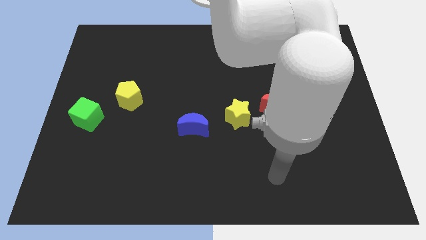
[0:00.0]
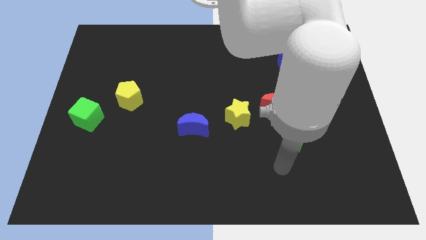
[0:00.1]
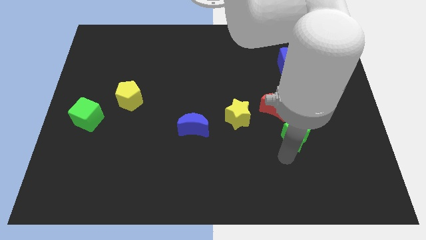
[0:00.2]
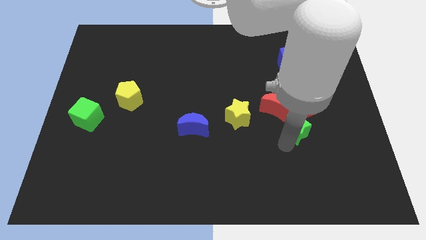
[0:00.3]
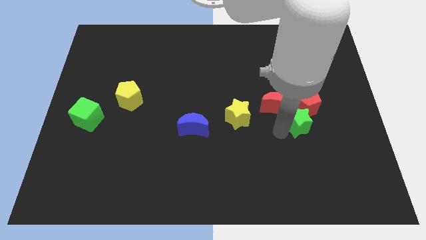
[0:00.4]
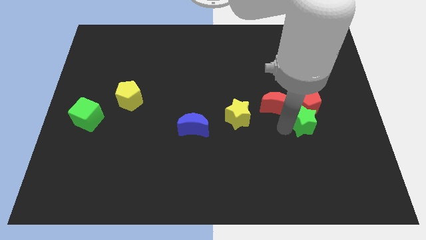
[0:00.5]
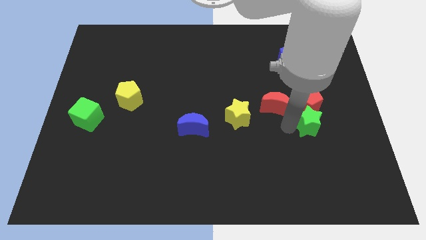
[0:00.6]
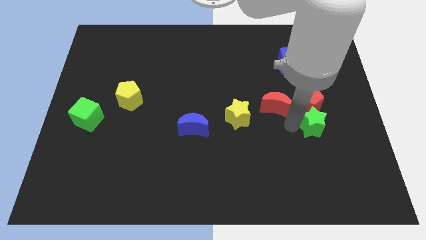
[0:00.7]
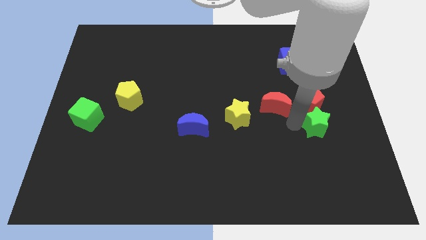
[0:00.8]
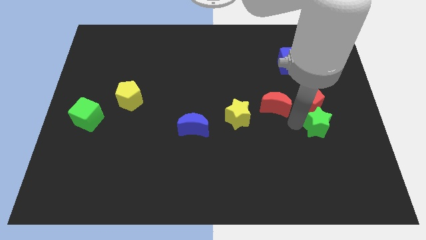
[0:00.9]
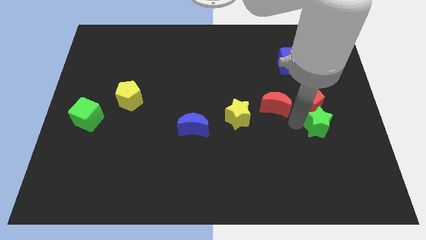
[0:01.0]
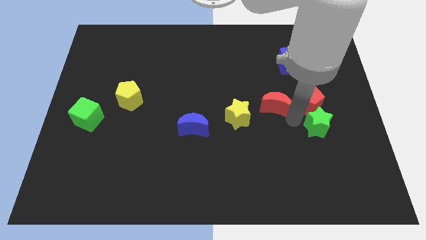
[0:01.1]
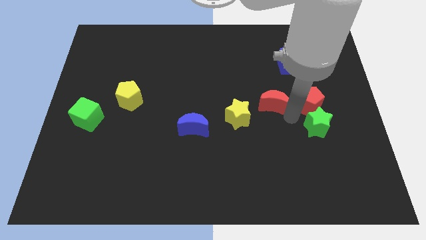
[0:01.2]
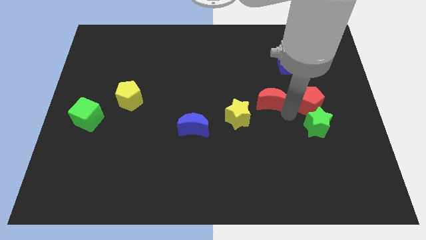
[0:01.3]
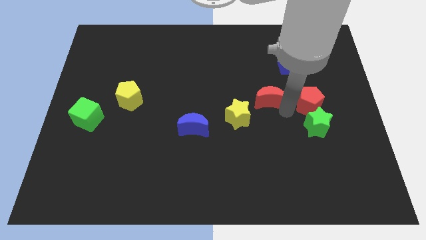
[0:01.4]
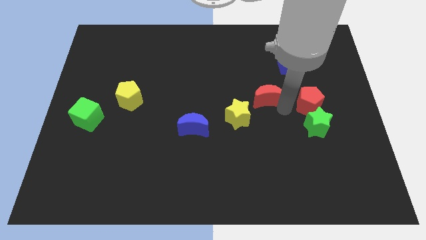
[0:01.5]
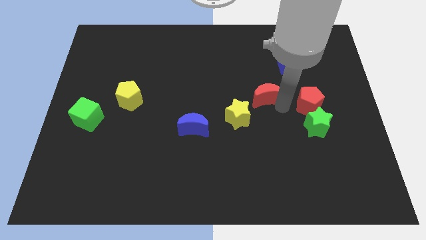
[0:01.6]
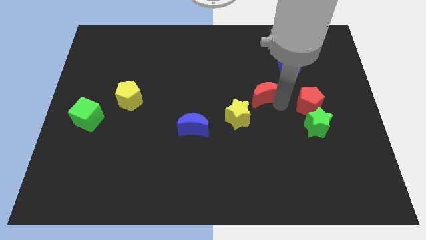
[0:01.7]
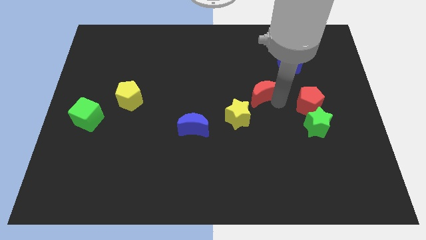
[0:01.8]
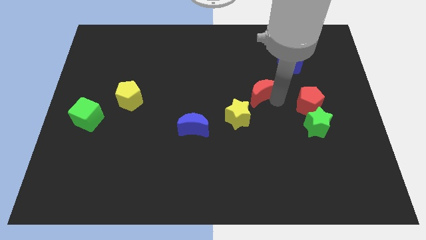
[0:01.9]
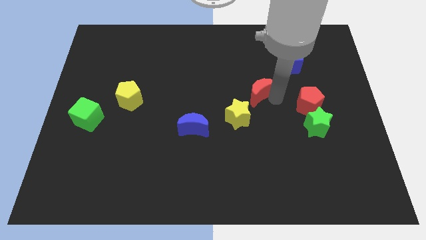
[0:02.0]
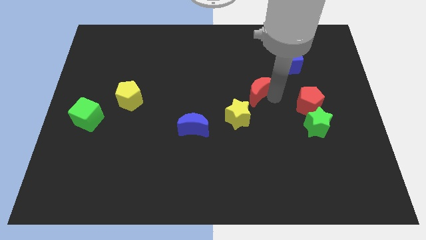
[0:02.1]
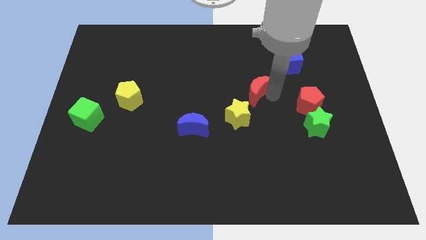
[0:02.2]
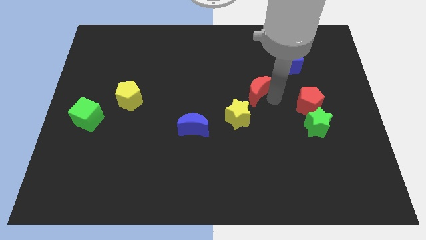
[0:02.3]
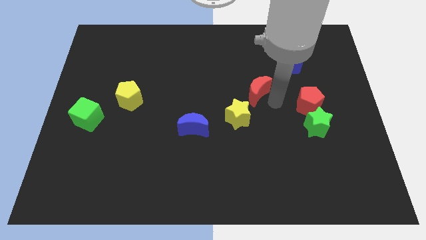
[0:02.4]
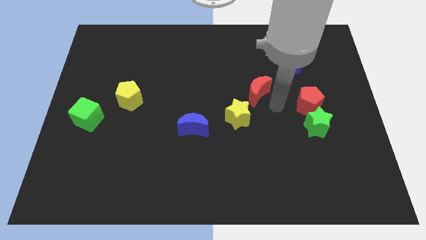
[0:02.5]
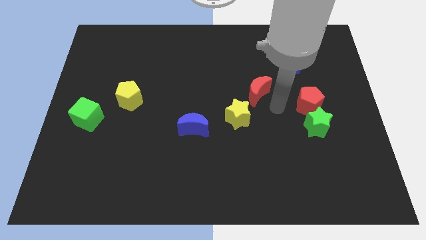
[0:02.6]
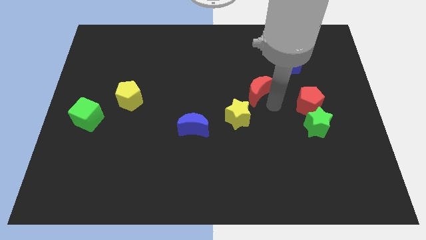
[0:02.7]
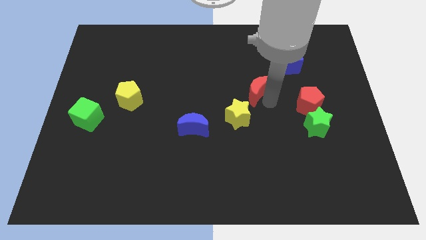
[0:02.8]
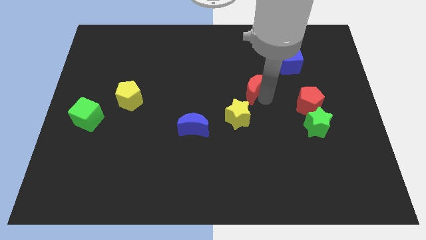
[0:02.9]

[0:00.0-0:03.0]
pull the red moon apart from the group of blocks

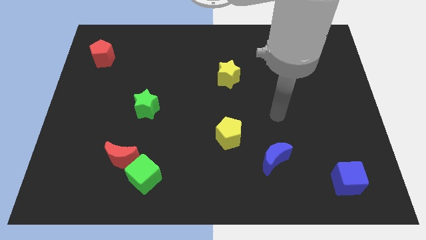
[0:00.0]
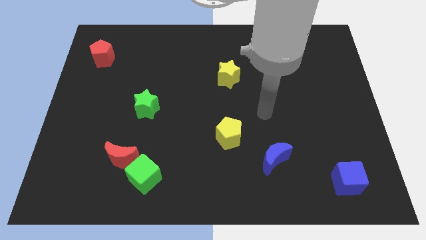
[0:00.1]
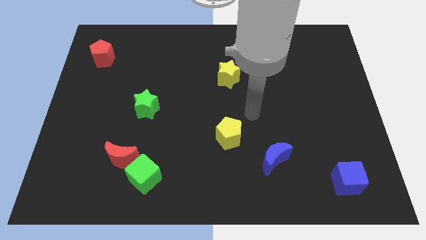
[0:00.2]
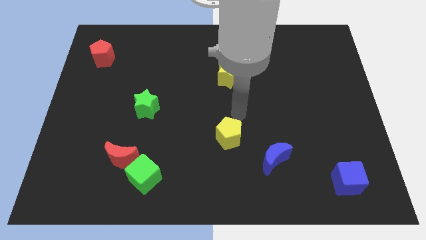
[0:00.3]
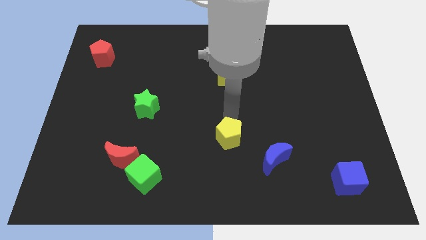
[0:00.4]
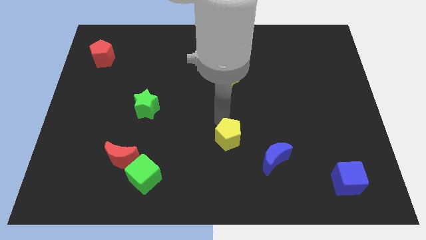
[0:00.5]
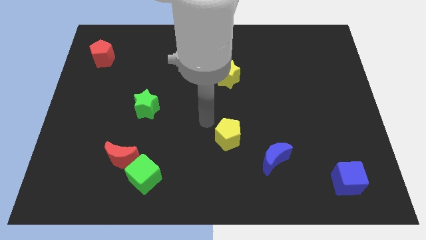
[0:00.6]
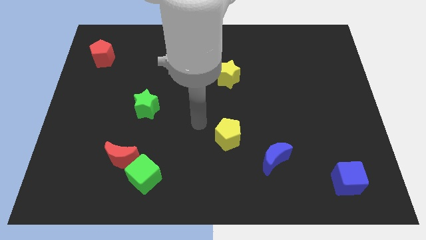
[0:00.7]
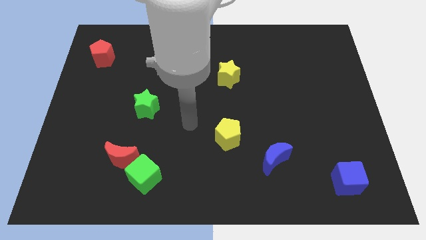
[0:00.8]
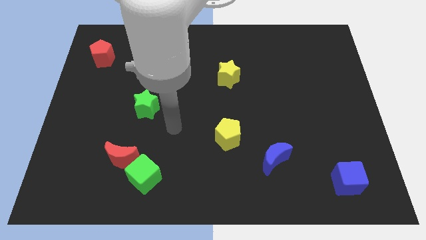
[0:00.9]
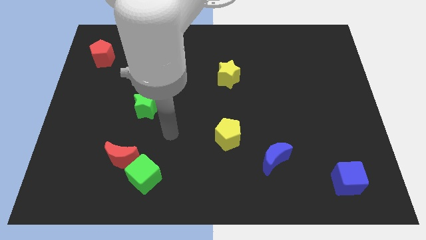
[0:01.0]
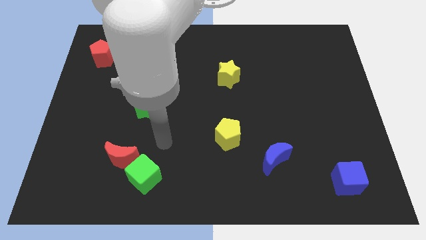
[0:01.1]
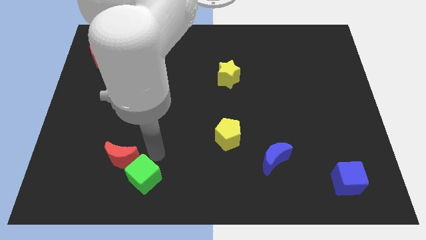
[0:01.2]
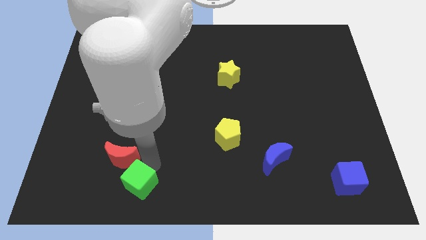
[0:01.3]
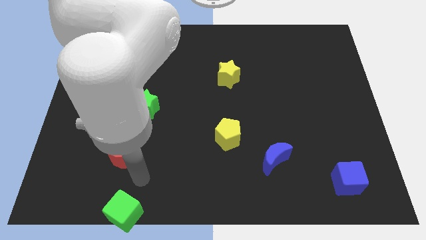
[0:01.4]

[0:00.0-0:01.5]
separate the red moon from the green cube

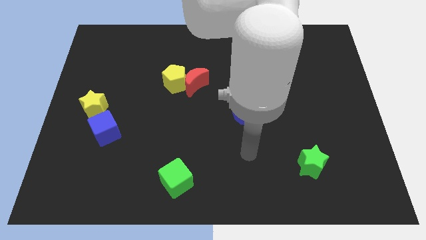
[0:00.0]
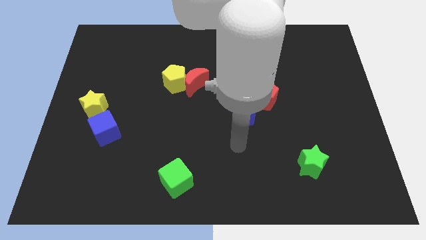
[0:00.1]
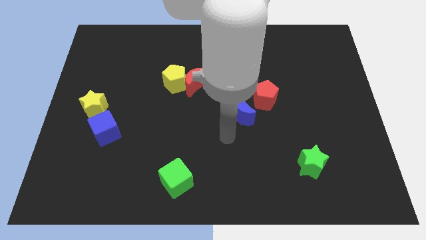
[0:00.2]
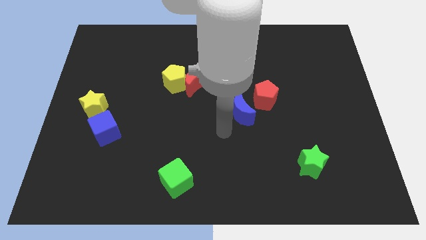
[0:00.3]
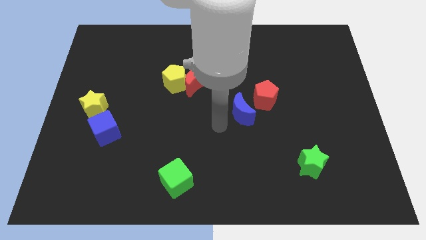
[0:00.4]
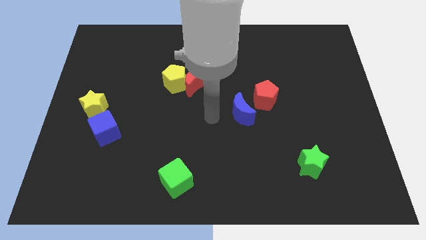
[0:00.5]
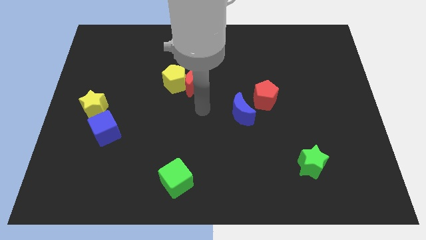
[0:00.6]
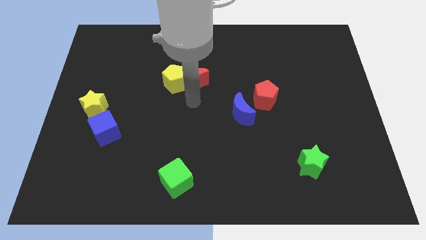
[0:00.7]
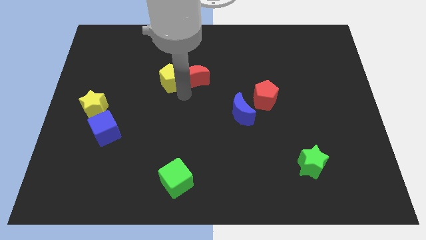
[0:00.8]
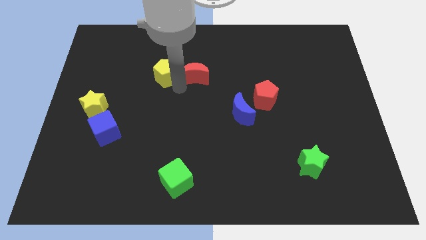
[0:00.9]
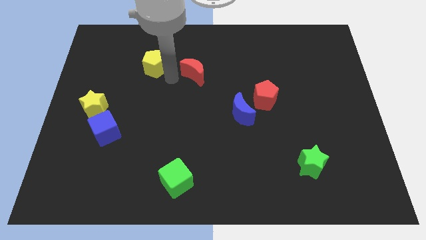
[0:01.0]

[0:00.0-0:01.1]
move the red moon away from the yellow pentagon

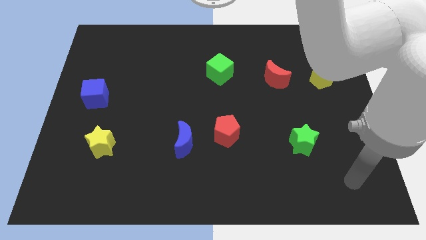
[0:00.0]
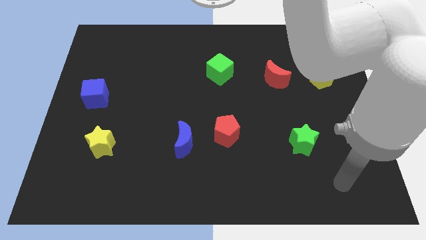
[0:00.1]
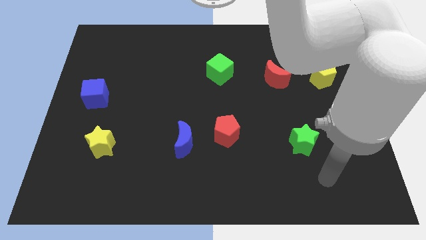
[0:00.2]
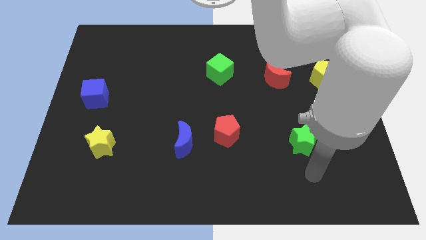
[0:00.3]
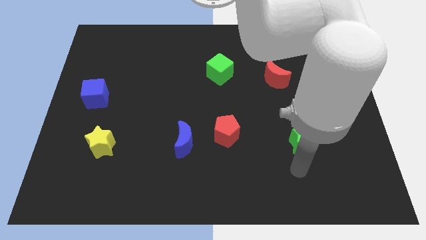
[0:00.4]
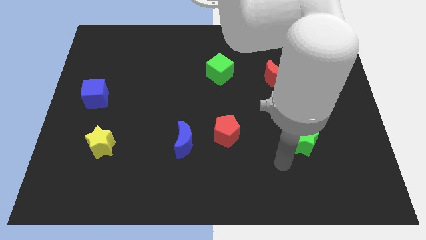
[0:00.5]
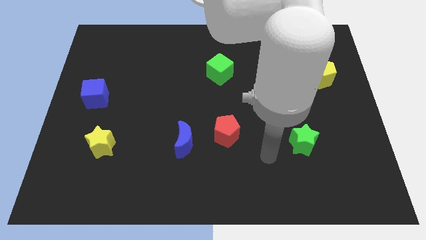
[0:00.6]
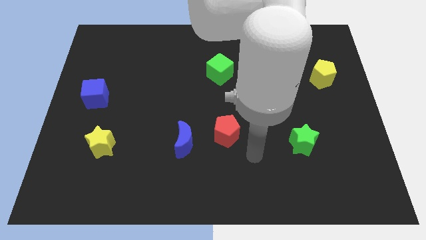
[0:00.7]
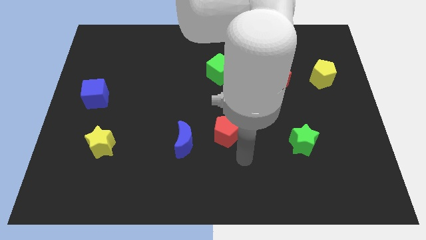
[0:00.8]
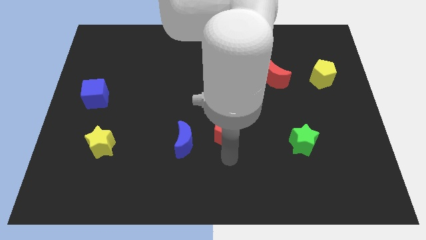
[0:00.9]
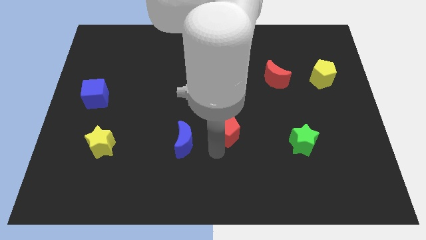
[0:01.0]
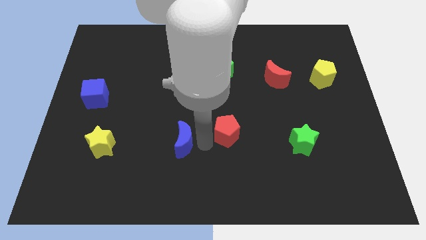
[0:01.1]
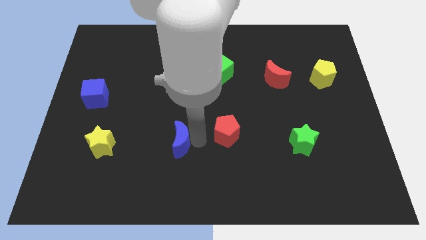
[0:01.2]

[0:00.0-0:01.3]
move the red pentagon away from the blue moon

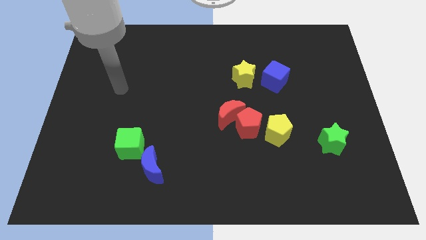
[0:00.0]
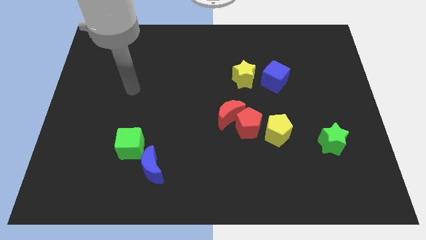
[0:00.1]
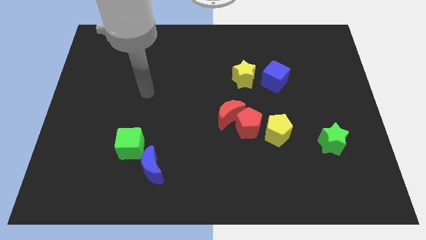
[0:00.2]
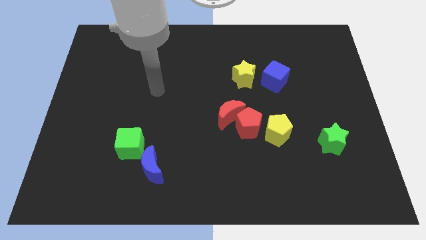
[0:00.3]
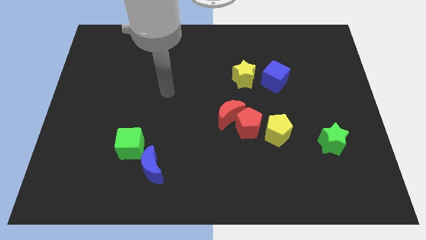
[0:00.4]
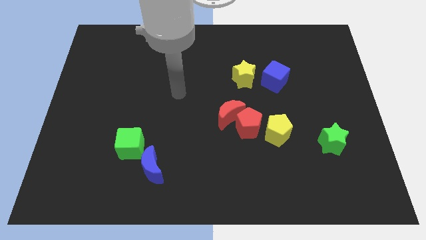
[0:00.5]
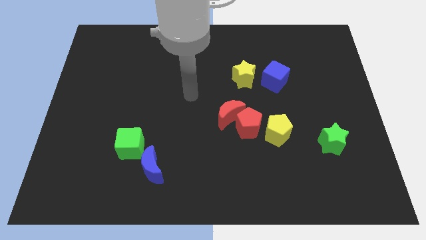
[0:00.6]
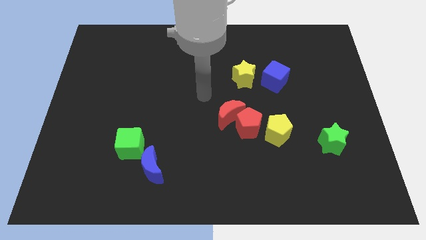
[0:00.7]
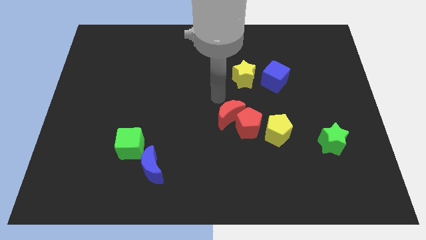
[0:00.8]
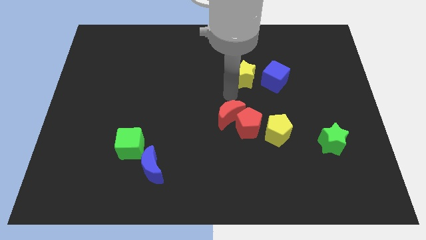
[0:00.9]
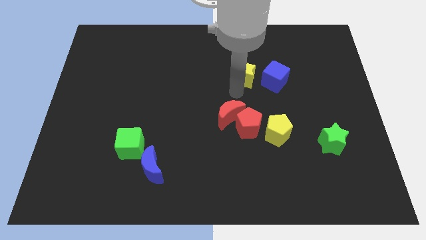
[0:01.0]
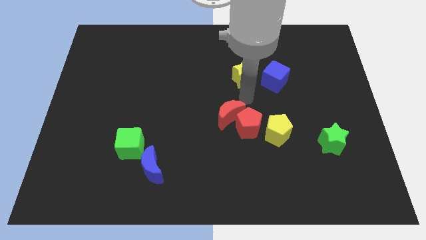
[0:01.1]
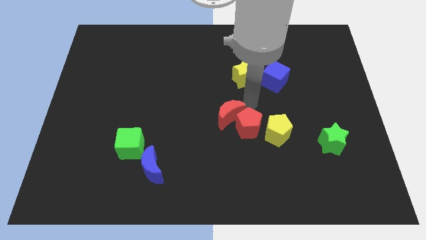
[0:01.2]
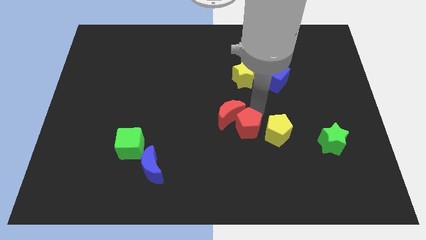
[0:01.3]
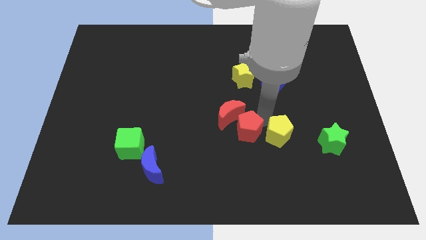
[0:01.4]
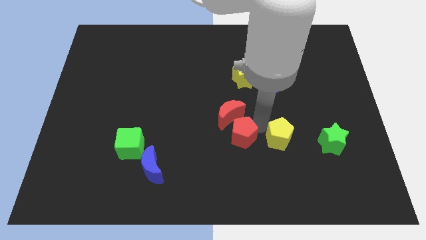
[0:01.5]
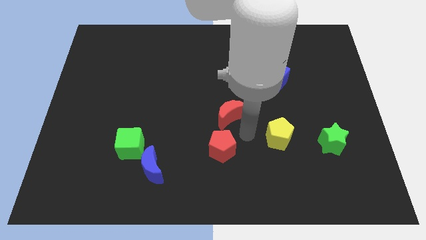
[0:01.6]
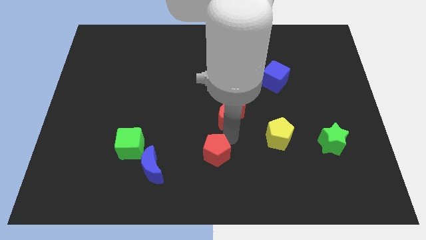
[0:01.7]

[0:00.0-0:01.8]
move the red moon away from the red pentagon

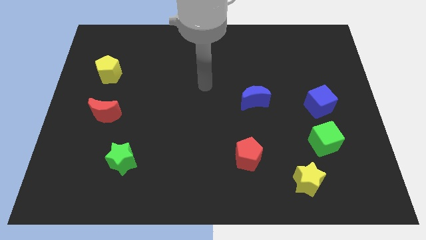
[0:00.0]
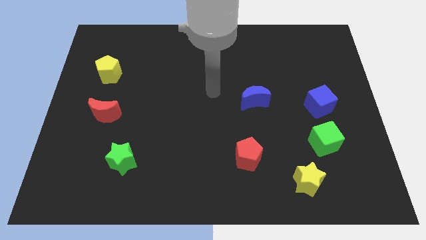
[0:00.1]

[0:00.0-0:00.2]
separate the blue cube from the green cube

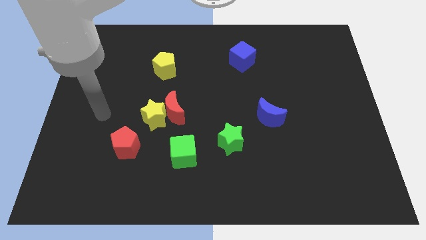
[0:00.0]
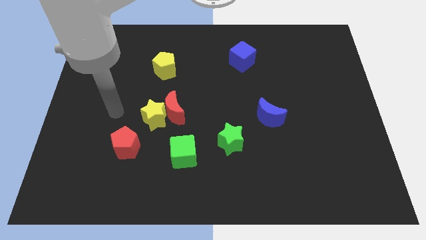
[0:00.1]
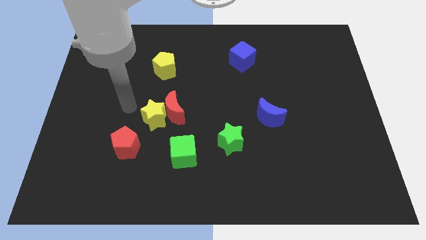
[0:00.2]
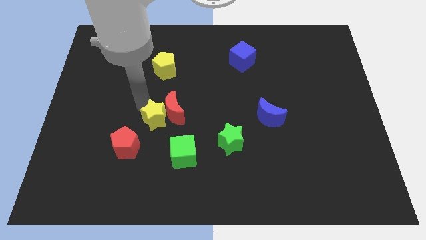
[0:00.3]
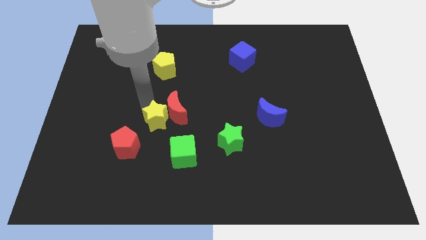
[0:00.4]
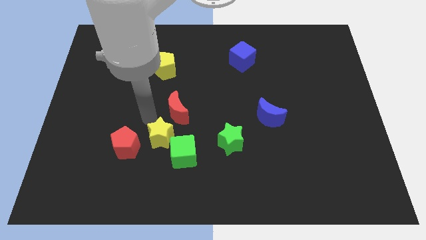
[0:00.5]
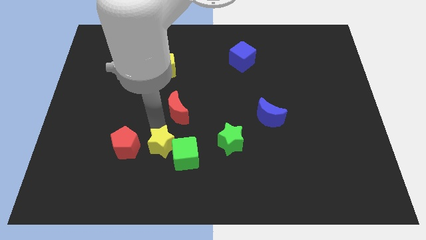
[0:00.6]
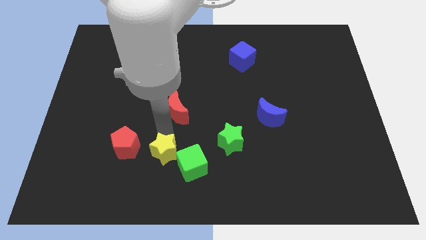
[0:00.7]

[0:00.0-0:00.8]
pull the red moon apart from the yellow star
